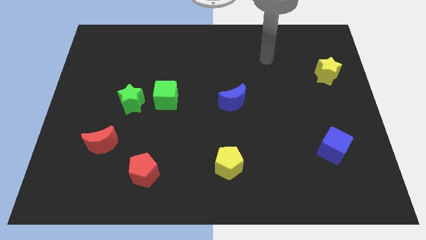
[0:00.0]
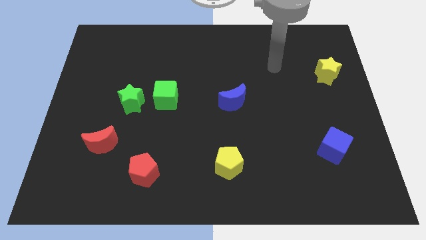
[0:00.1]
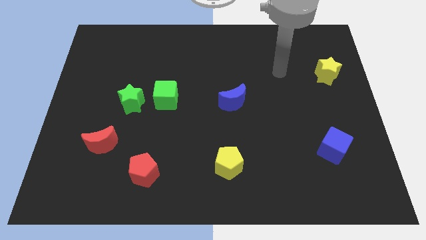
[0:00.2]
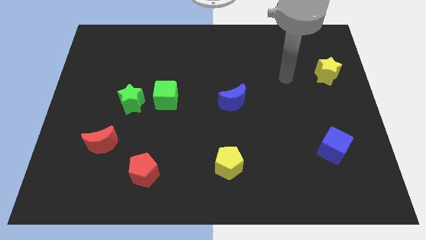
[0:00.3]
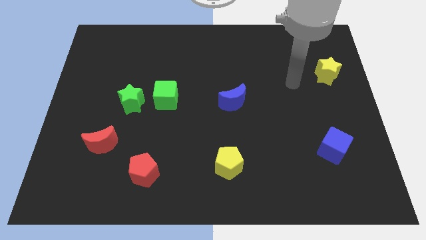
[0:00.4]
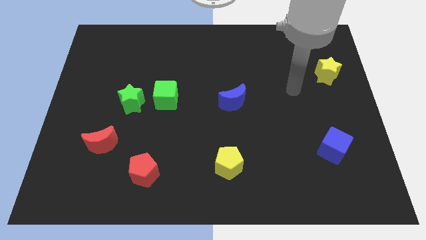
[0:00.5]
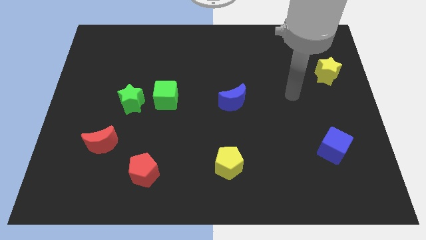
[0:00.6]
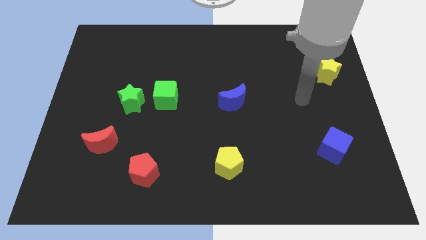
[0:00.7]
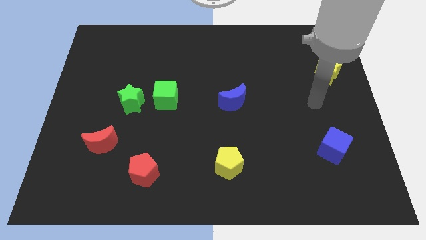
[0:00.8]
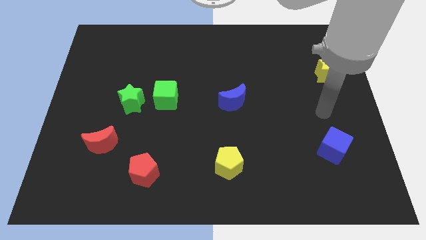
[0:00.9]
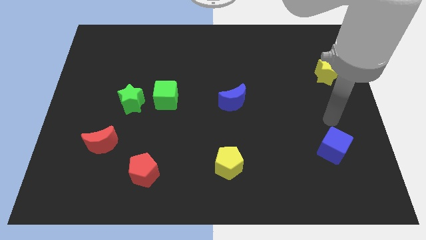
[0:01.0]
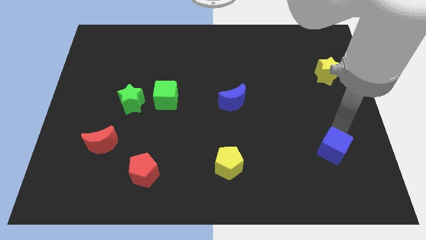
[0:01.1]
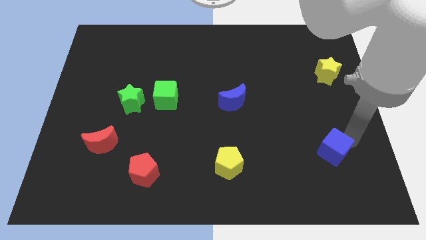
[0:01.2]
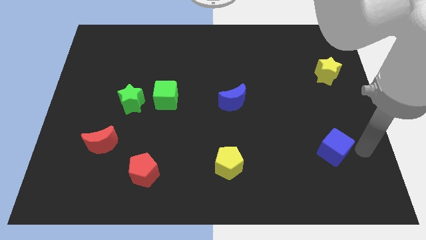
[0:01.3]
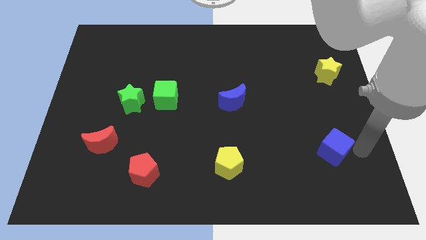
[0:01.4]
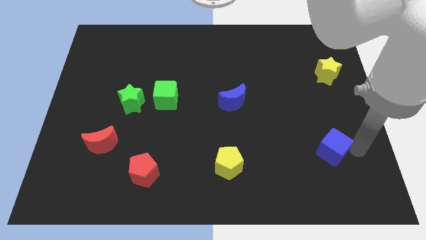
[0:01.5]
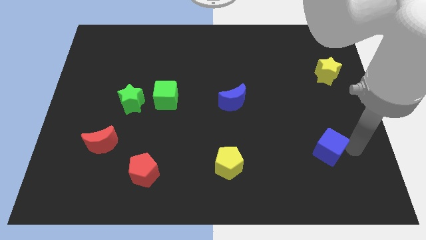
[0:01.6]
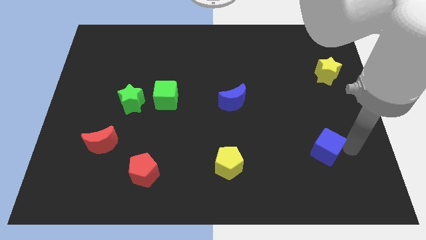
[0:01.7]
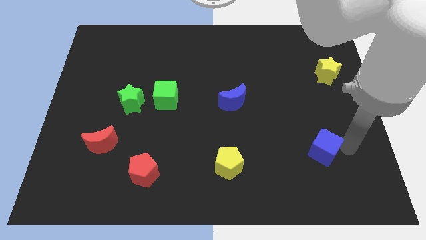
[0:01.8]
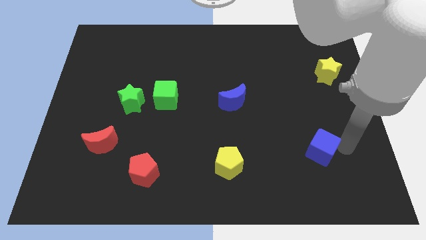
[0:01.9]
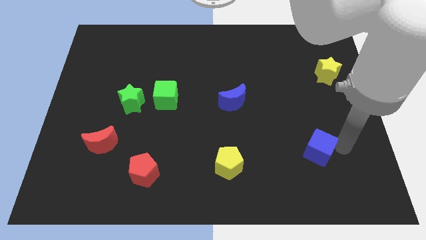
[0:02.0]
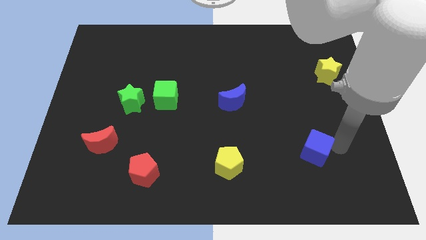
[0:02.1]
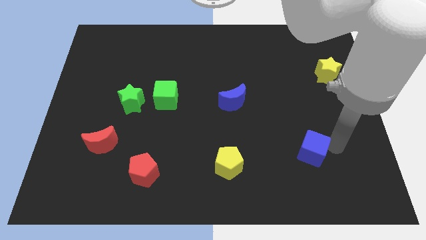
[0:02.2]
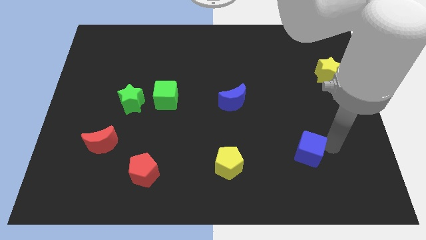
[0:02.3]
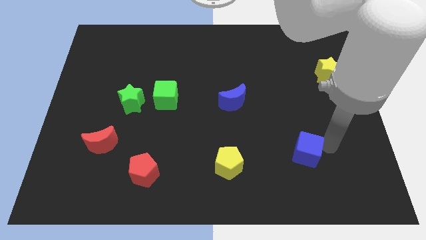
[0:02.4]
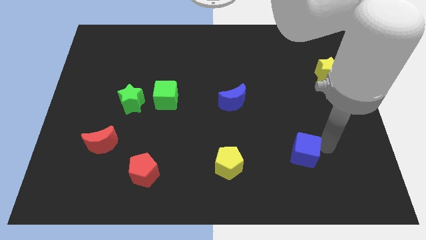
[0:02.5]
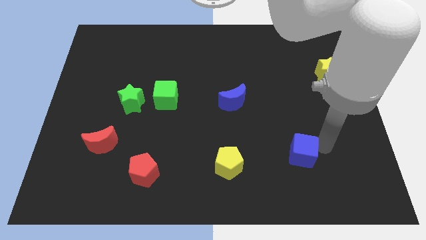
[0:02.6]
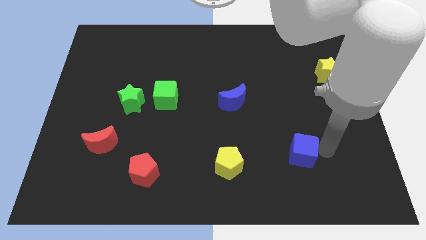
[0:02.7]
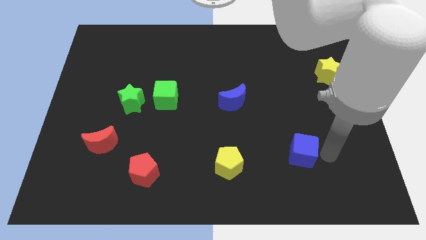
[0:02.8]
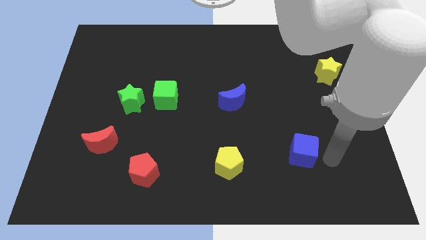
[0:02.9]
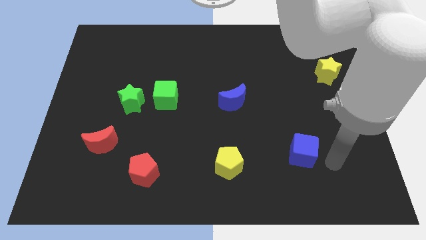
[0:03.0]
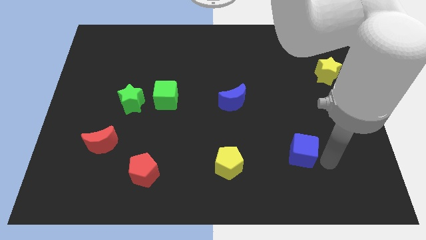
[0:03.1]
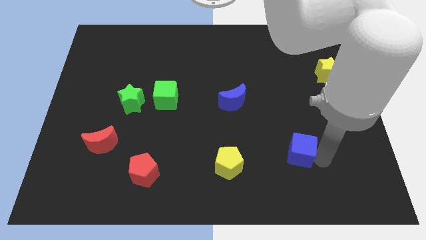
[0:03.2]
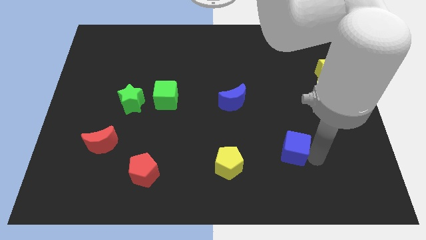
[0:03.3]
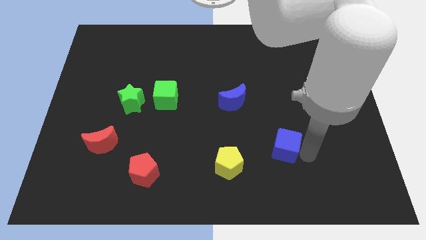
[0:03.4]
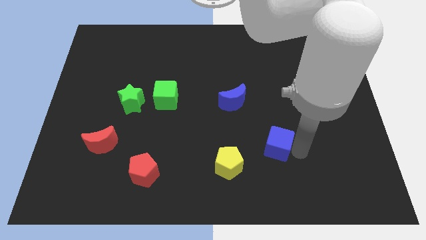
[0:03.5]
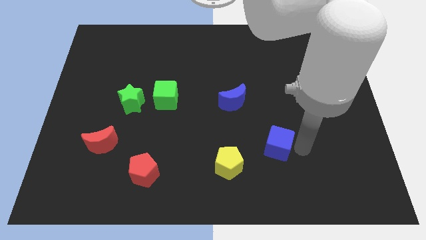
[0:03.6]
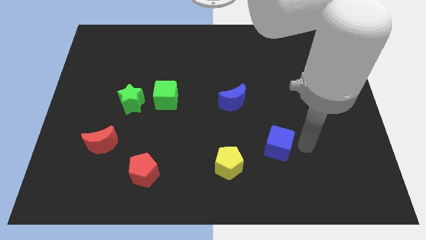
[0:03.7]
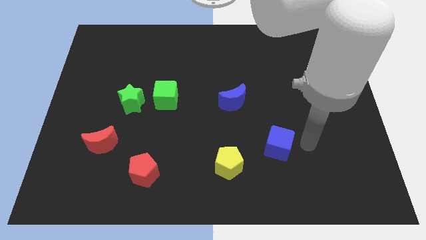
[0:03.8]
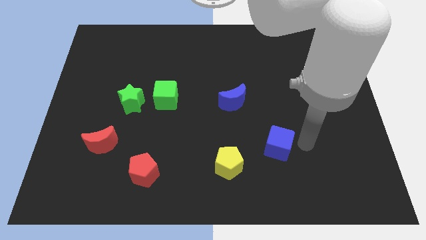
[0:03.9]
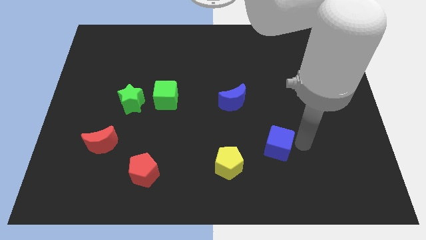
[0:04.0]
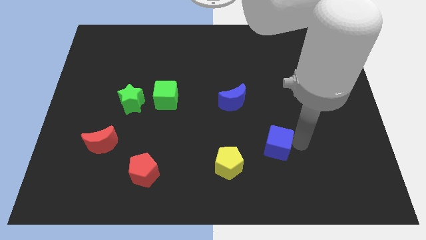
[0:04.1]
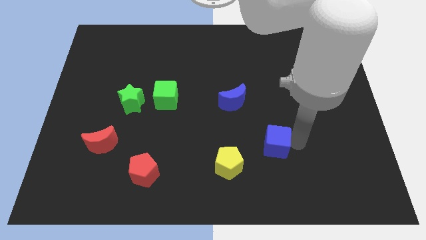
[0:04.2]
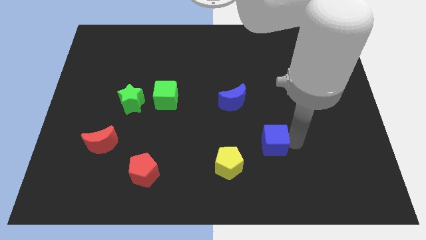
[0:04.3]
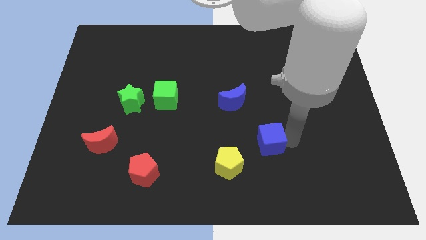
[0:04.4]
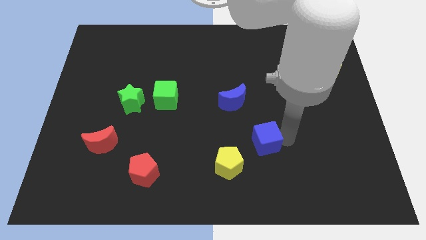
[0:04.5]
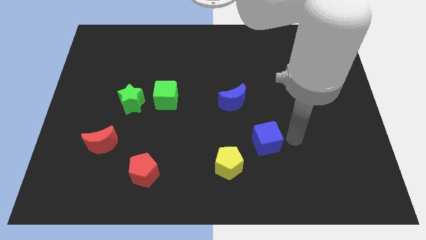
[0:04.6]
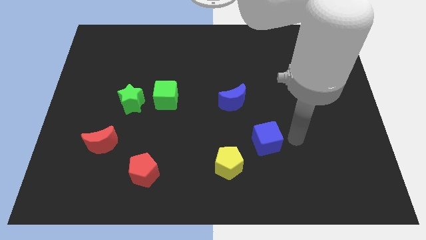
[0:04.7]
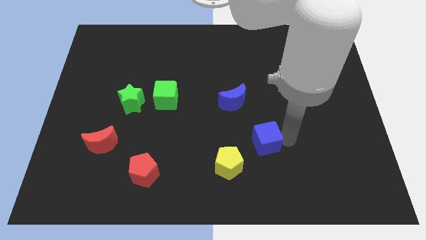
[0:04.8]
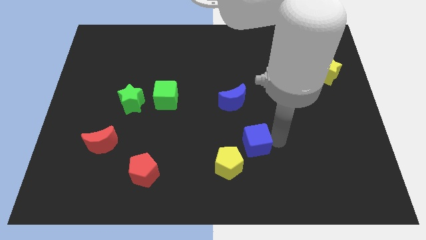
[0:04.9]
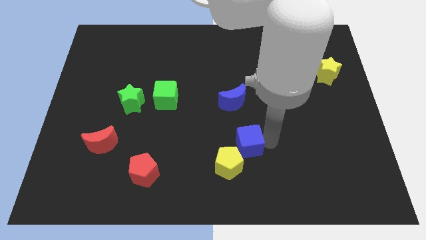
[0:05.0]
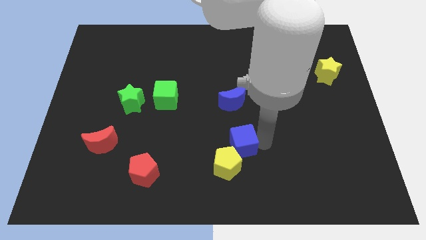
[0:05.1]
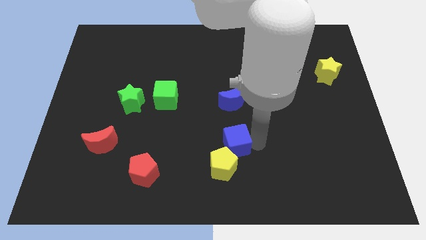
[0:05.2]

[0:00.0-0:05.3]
push the blue cube to the left

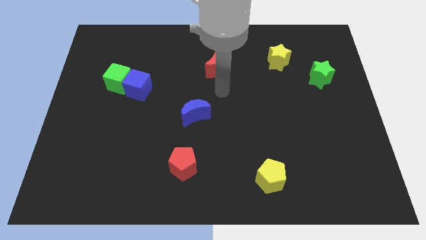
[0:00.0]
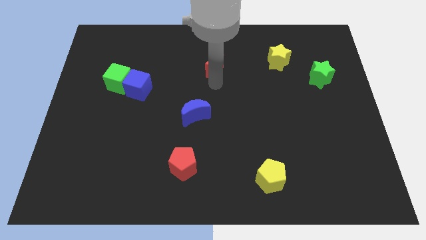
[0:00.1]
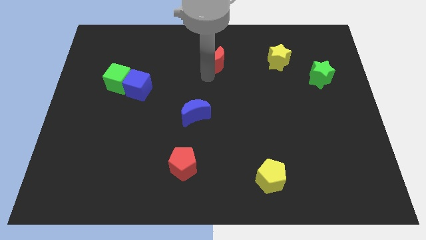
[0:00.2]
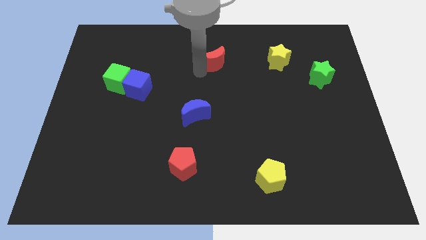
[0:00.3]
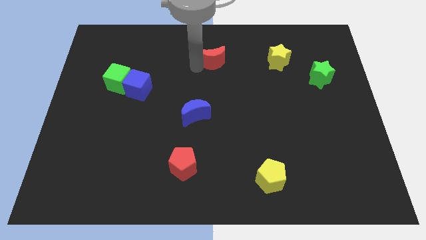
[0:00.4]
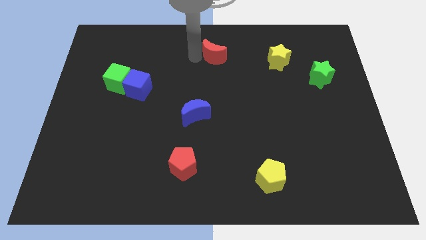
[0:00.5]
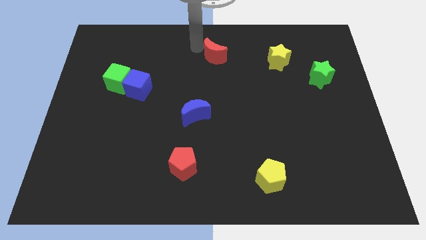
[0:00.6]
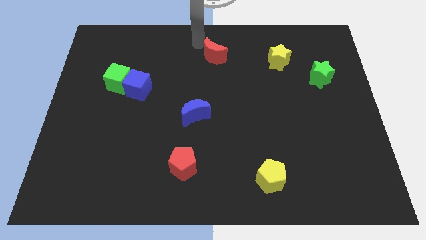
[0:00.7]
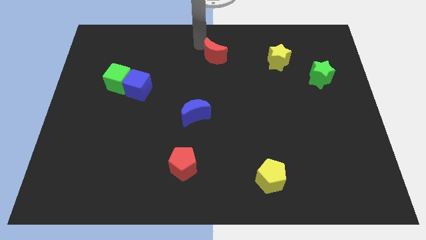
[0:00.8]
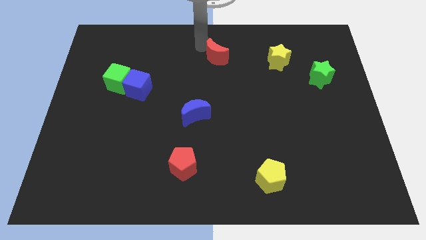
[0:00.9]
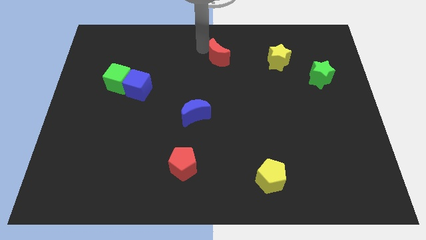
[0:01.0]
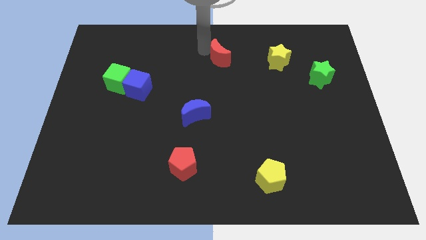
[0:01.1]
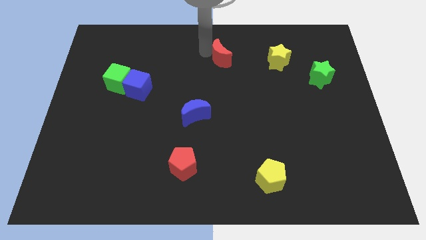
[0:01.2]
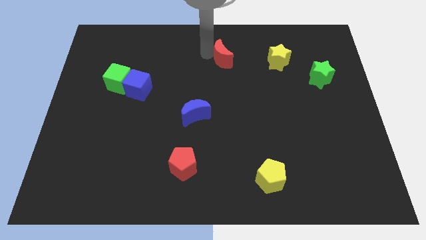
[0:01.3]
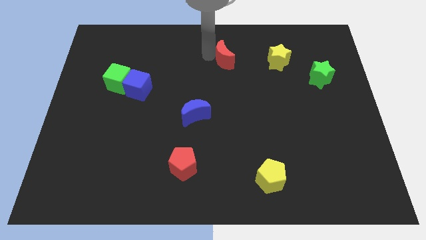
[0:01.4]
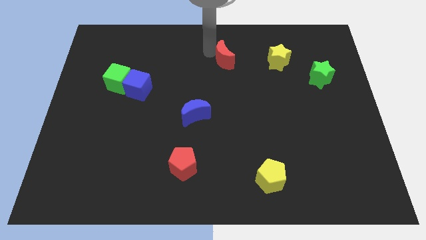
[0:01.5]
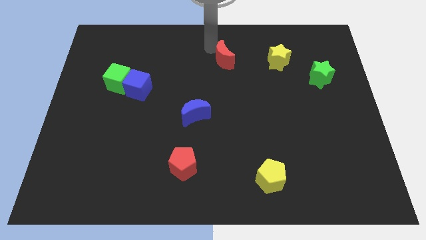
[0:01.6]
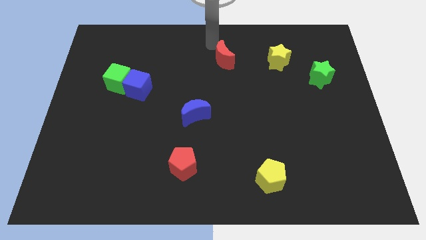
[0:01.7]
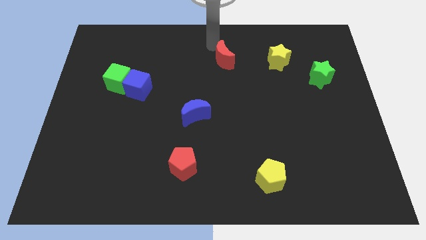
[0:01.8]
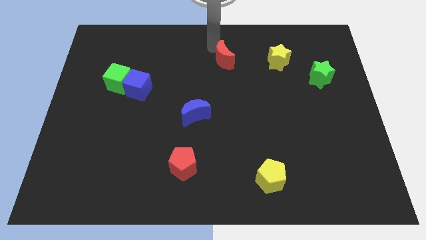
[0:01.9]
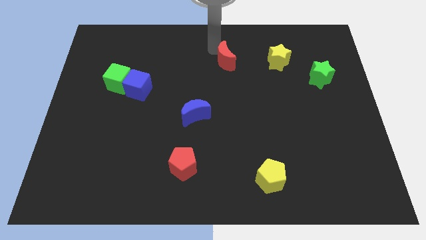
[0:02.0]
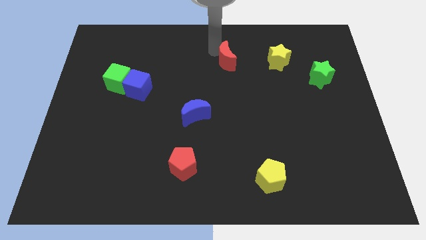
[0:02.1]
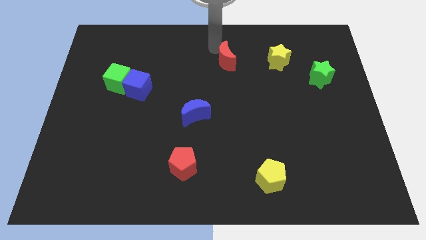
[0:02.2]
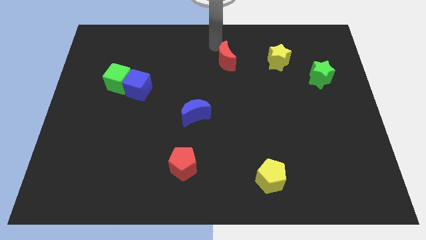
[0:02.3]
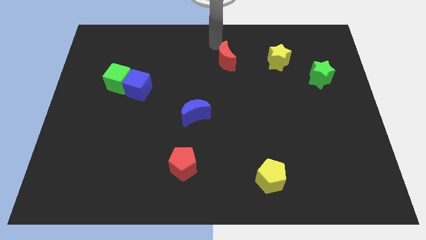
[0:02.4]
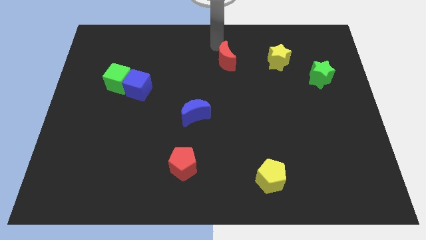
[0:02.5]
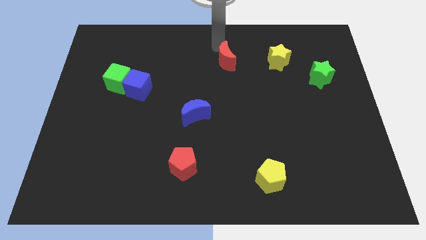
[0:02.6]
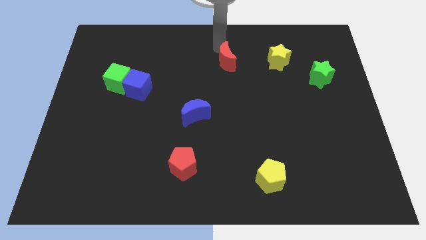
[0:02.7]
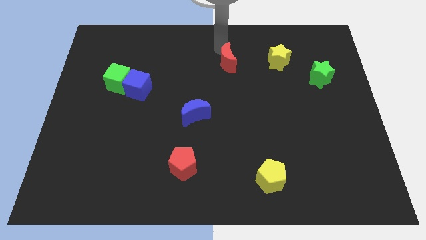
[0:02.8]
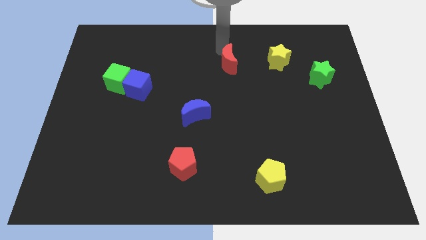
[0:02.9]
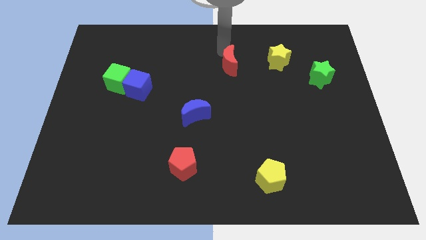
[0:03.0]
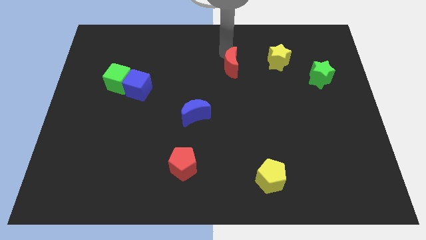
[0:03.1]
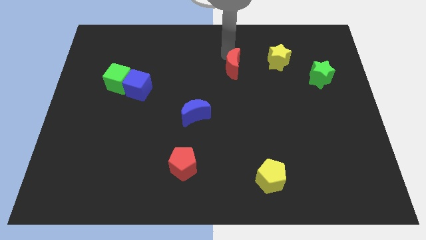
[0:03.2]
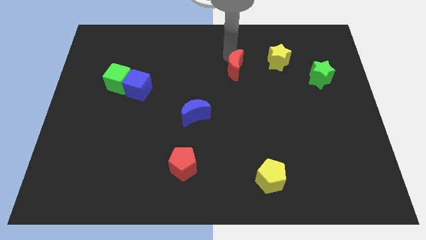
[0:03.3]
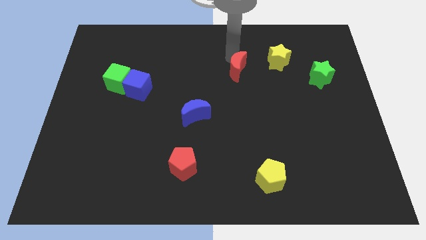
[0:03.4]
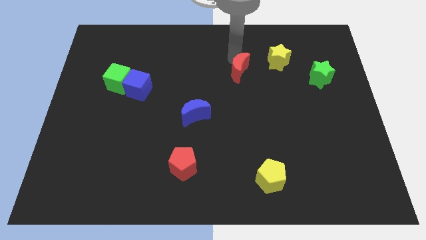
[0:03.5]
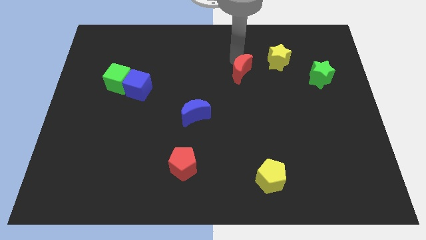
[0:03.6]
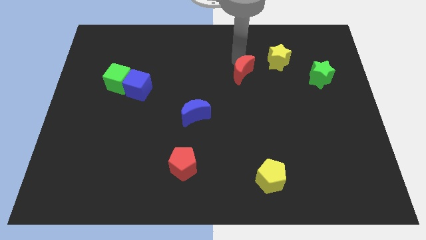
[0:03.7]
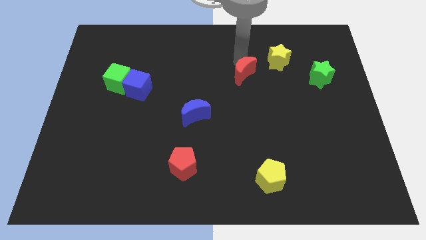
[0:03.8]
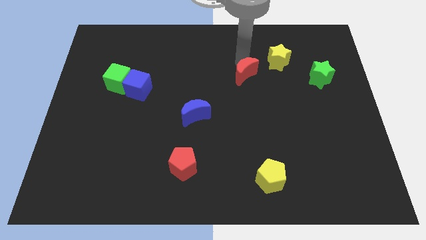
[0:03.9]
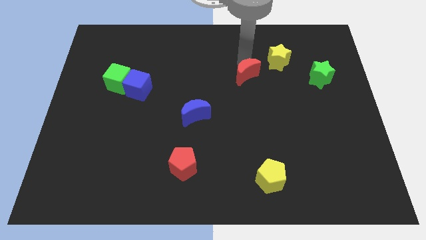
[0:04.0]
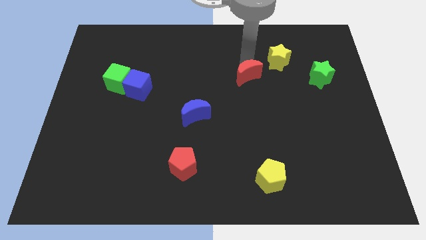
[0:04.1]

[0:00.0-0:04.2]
move the red moon diagonally down and to the right slightly
